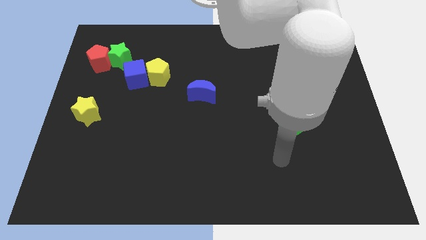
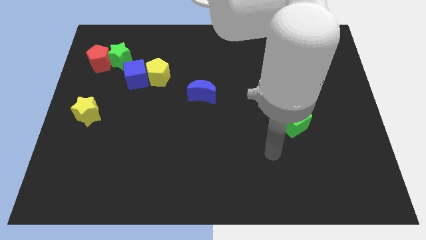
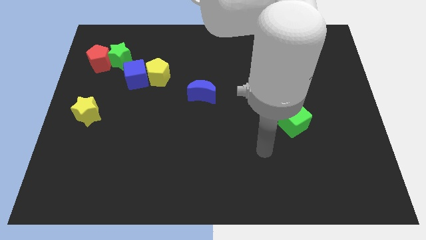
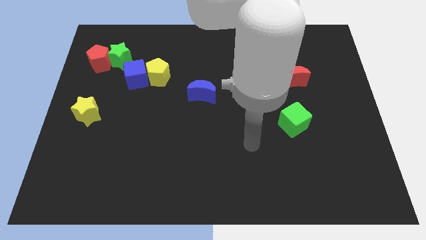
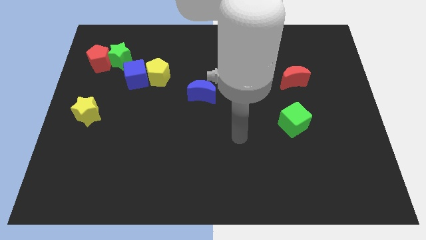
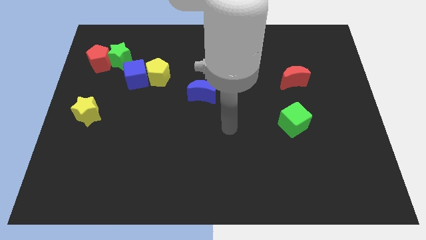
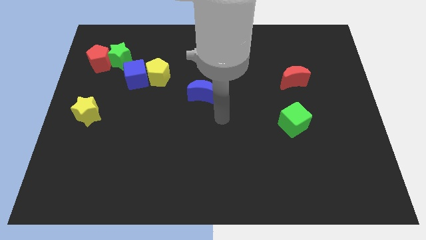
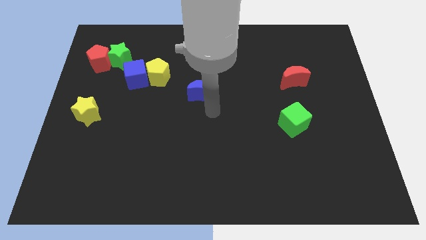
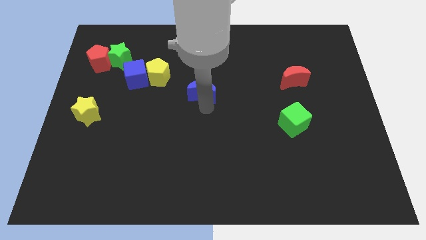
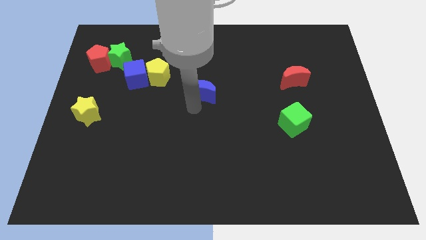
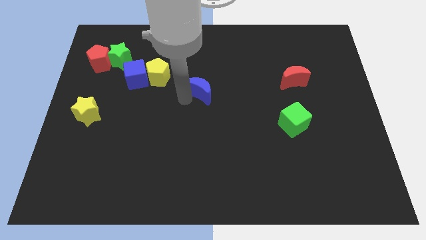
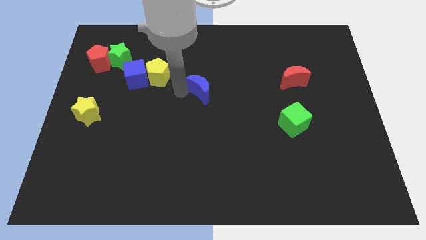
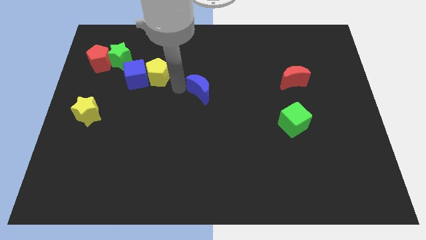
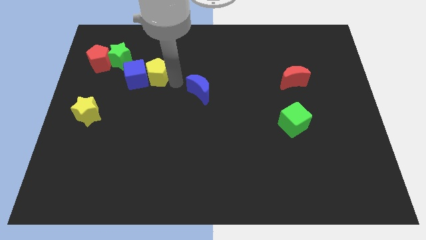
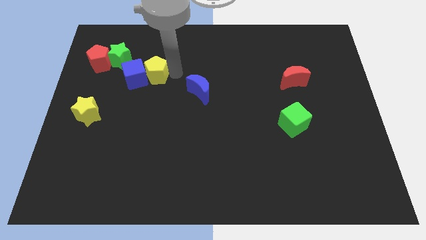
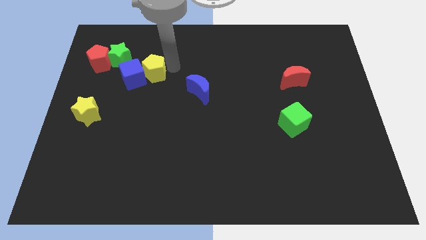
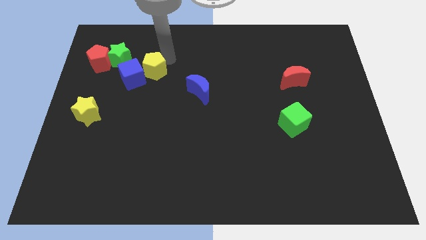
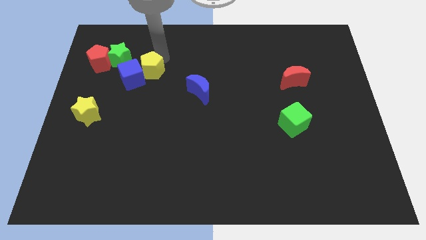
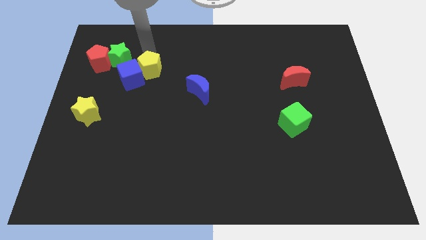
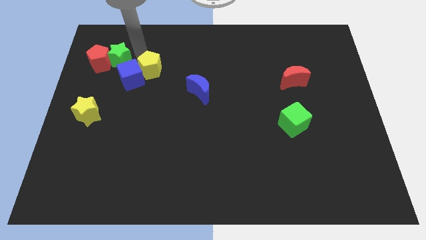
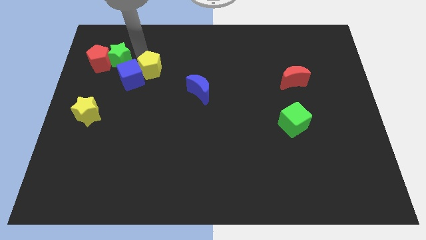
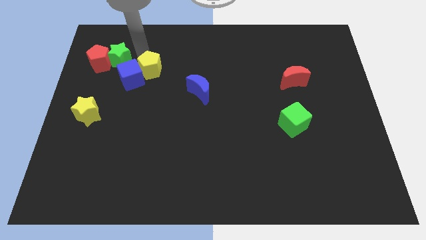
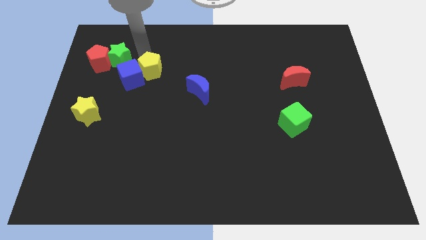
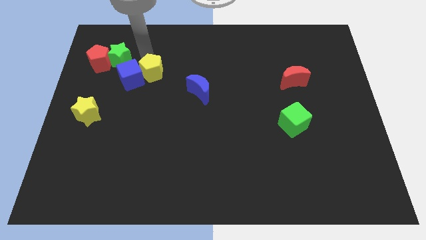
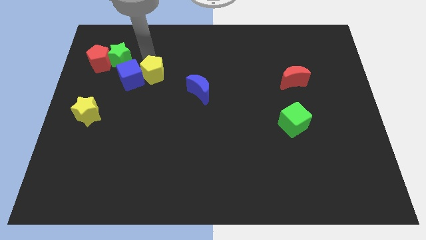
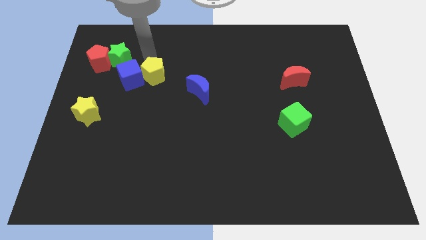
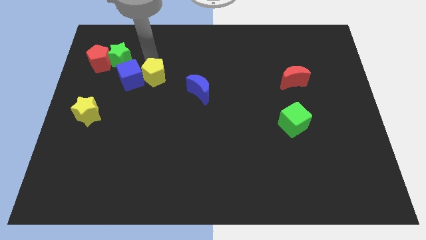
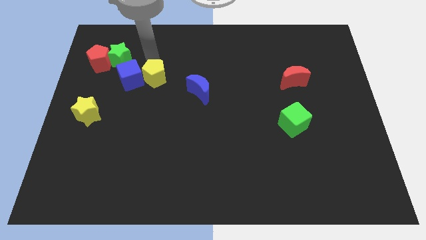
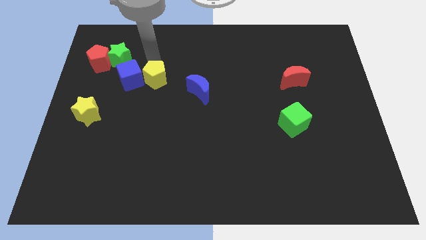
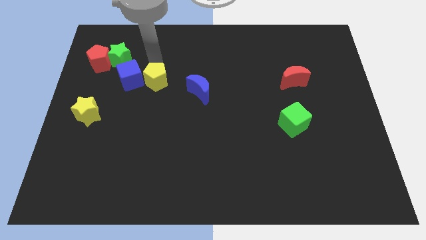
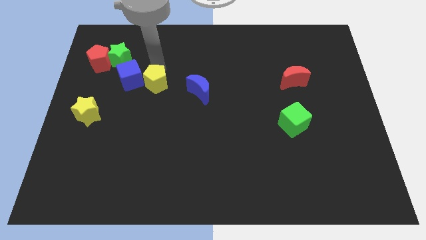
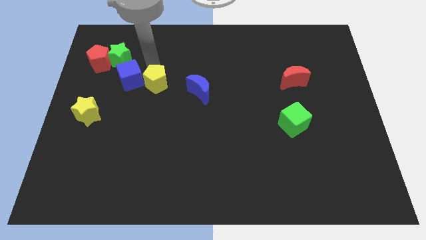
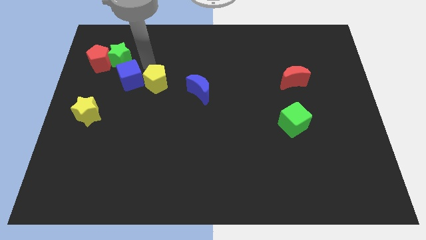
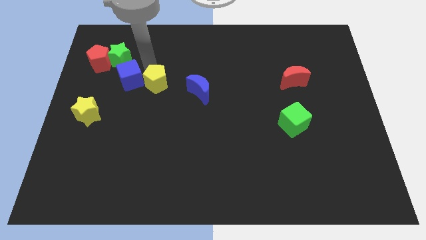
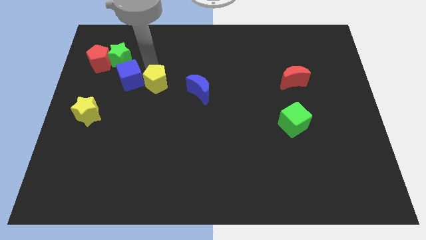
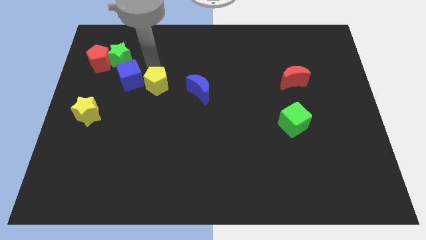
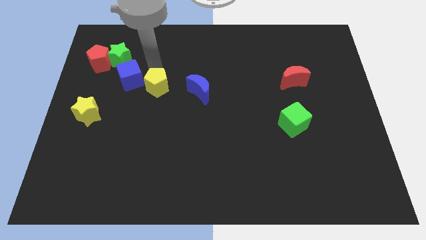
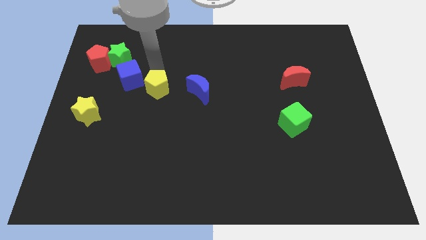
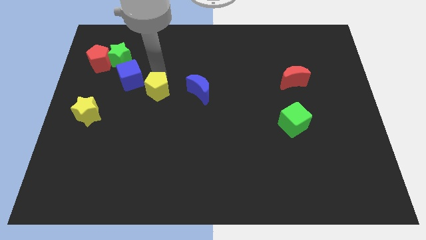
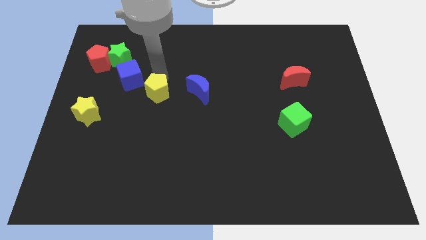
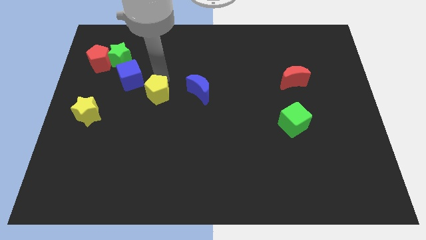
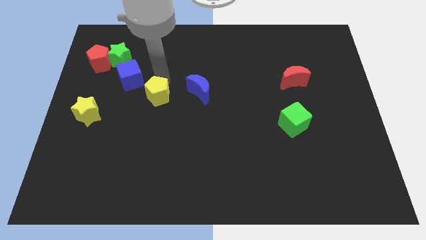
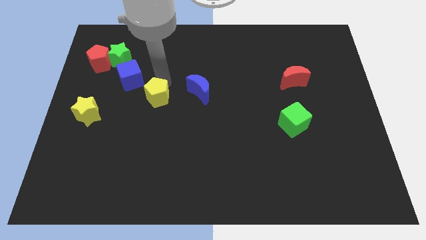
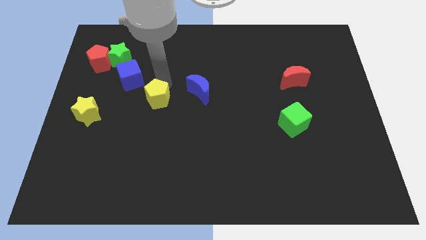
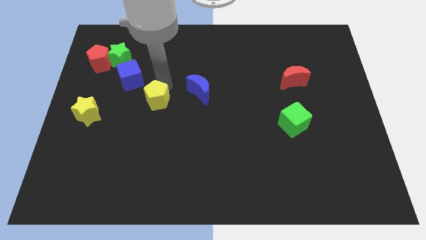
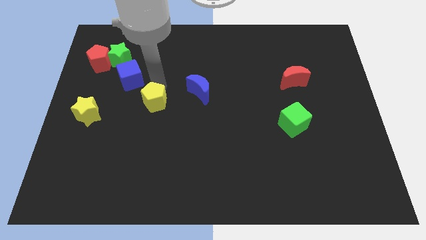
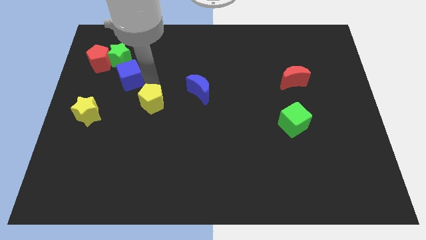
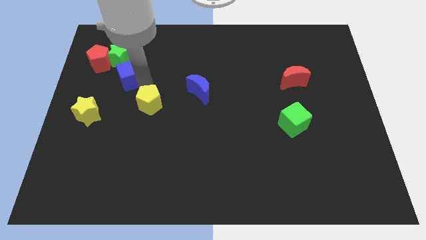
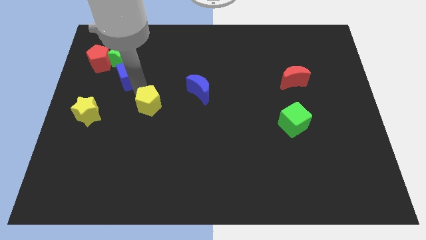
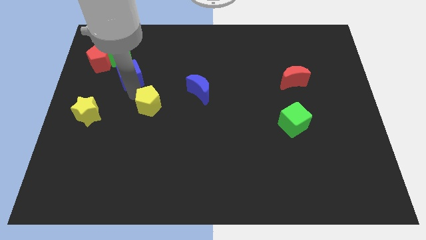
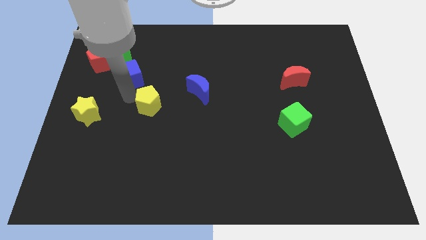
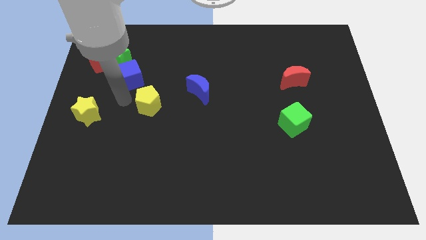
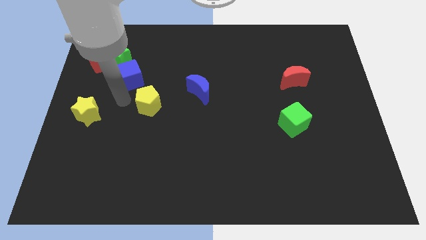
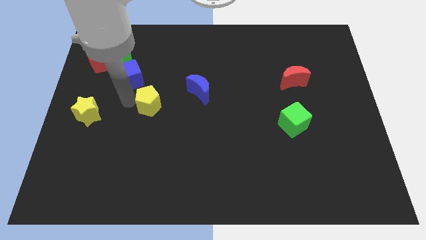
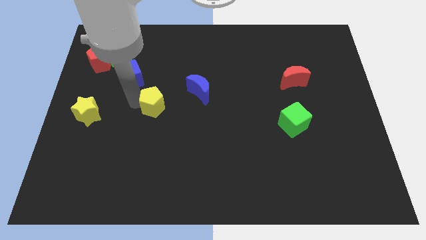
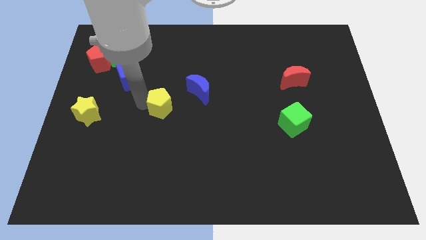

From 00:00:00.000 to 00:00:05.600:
slide the yellow pentagon to the bottom left of the blue moon
